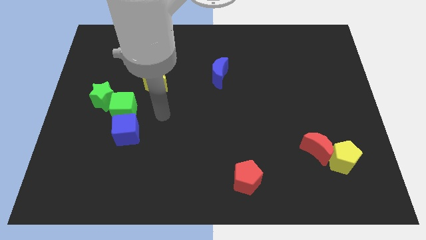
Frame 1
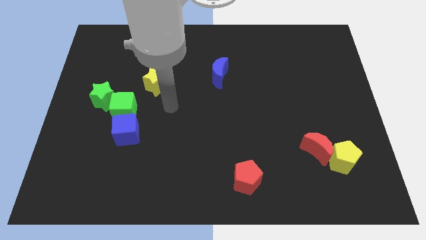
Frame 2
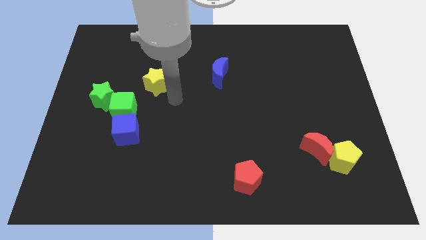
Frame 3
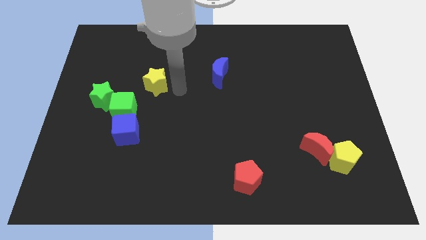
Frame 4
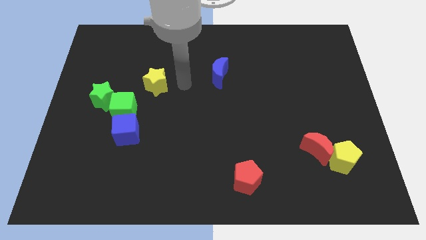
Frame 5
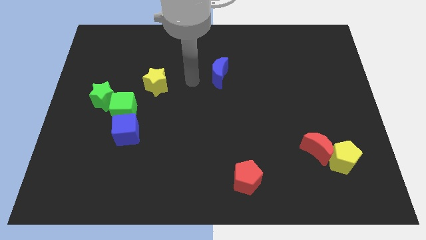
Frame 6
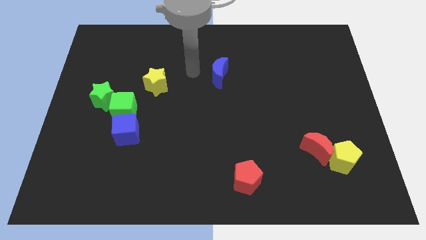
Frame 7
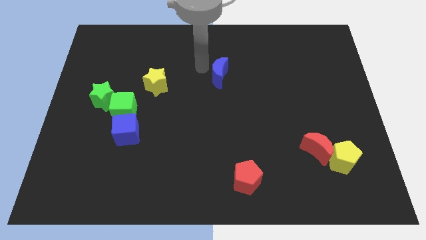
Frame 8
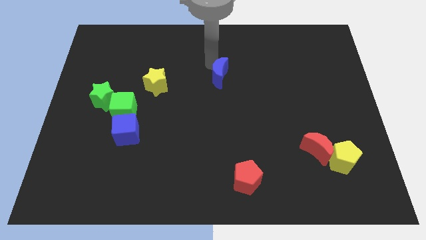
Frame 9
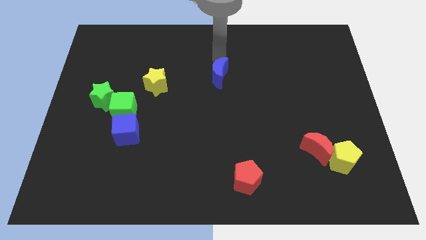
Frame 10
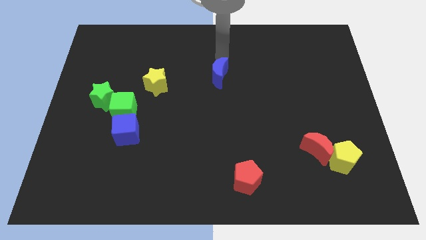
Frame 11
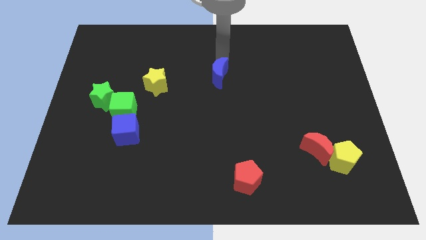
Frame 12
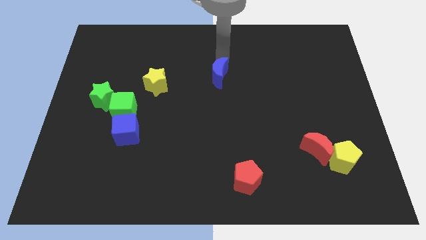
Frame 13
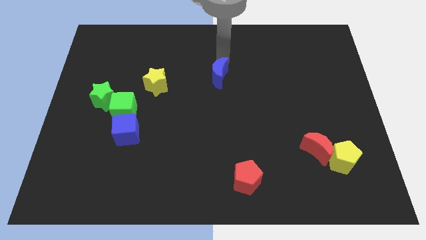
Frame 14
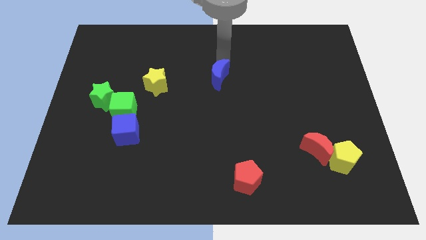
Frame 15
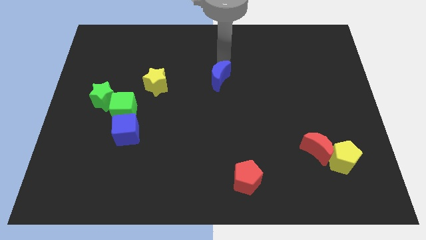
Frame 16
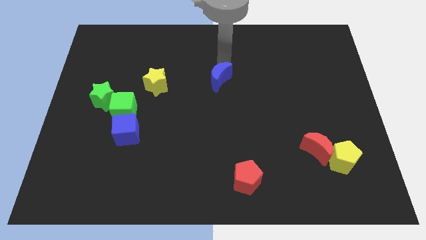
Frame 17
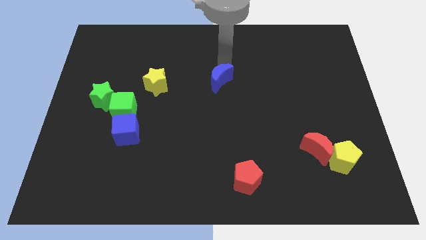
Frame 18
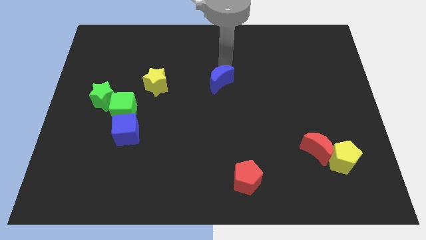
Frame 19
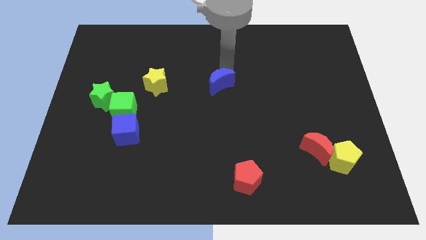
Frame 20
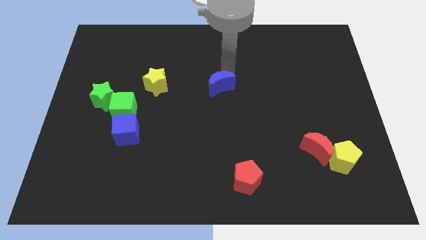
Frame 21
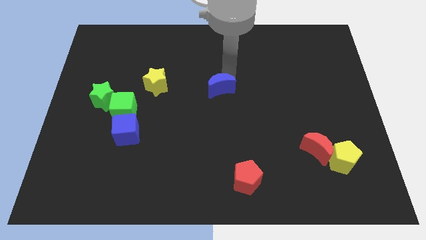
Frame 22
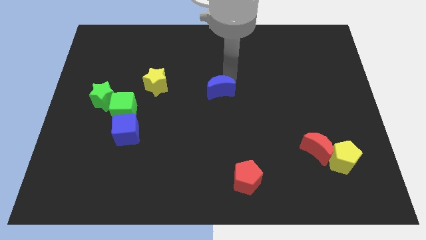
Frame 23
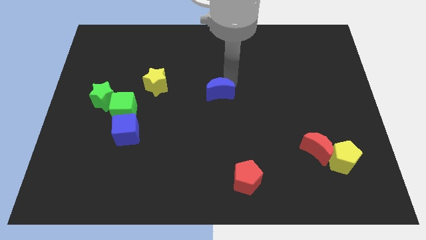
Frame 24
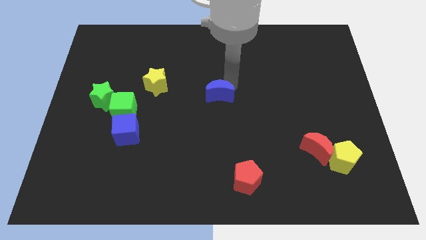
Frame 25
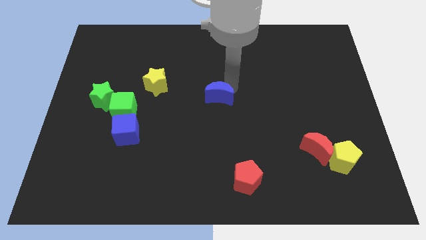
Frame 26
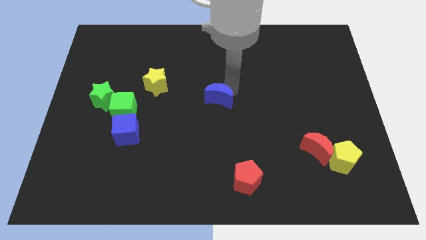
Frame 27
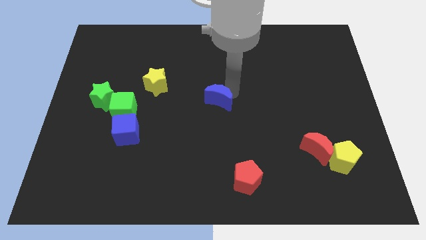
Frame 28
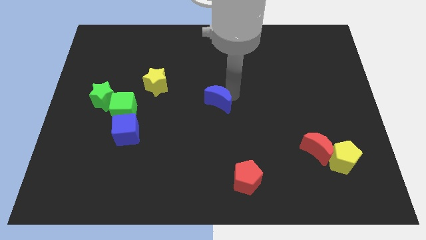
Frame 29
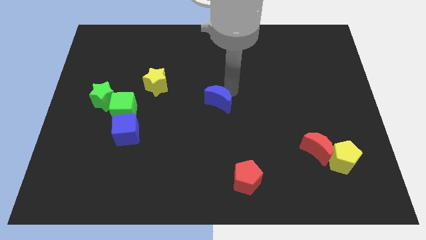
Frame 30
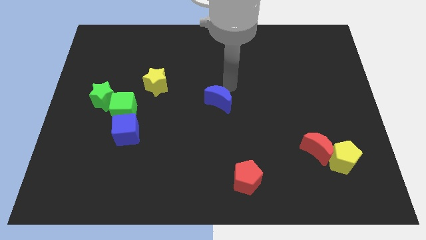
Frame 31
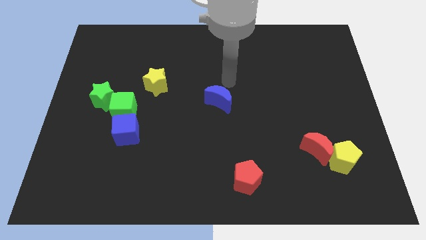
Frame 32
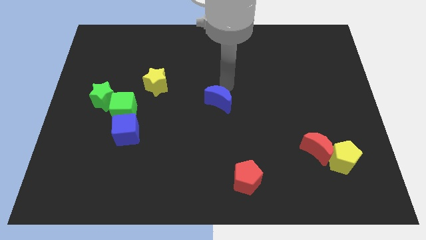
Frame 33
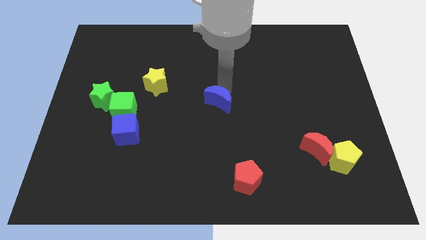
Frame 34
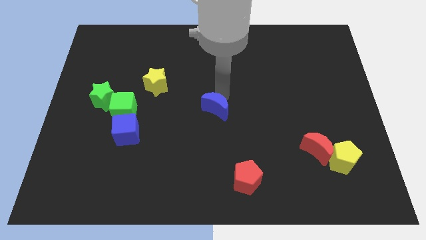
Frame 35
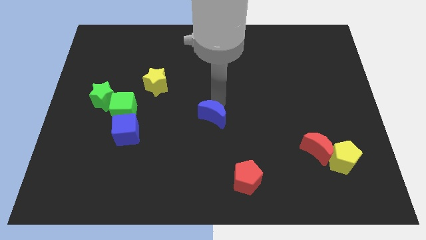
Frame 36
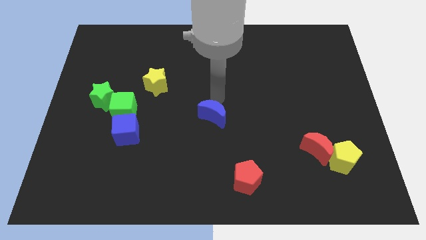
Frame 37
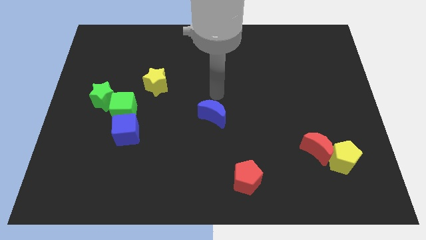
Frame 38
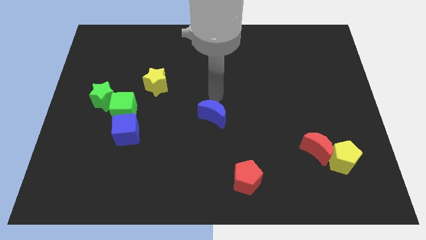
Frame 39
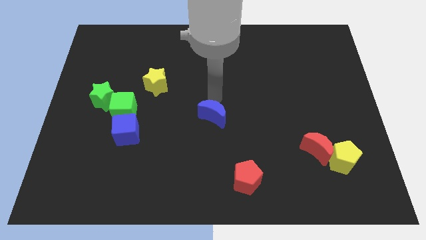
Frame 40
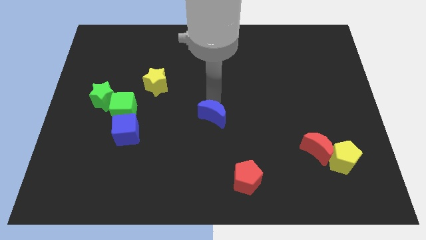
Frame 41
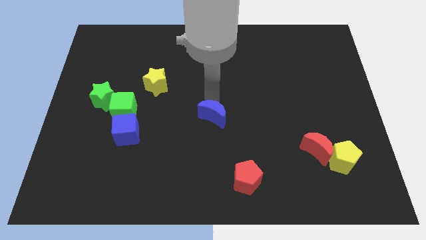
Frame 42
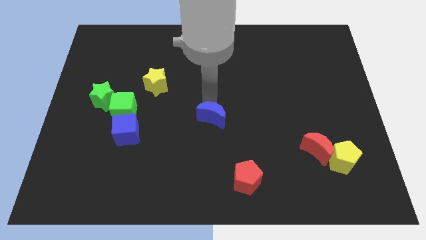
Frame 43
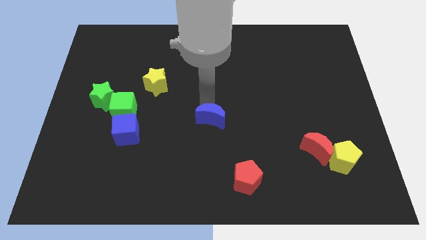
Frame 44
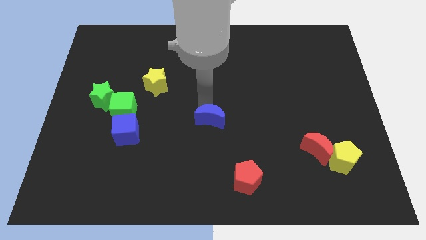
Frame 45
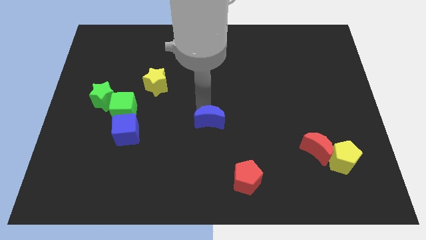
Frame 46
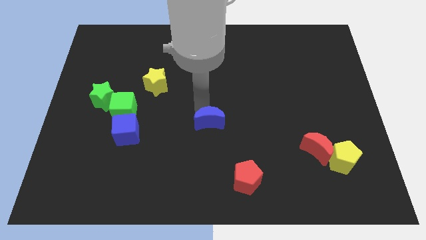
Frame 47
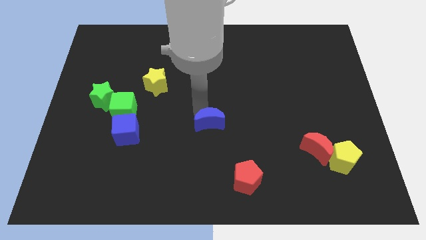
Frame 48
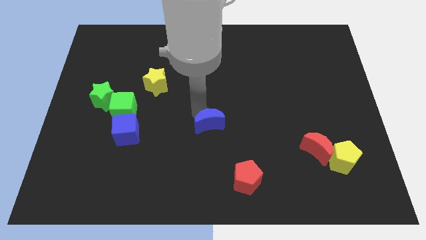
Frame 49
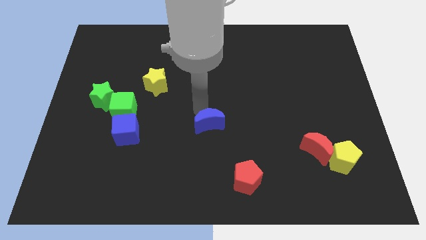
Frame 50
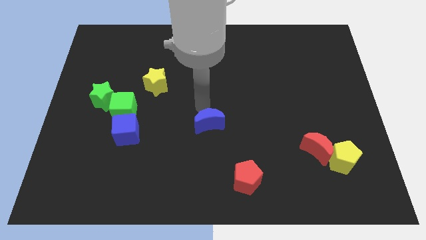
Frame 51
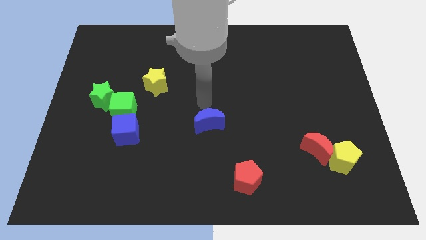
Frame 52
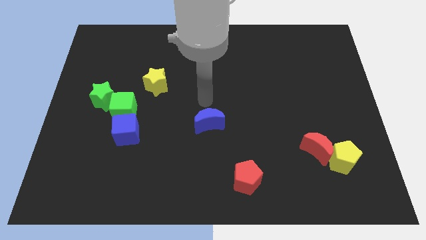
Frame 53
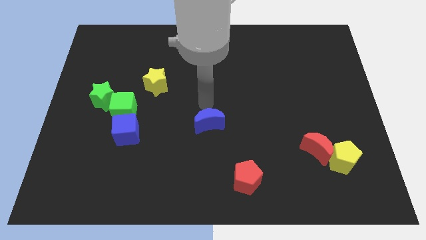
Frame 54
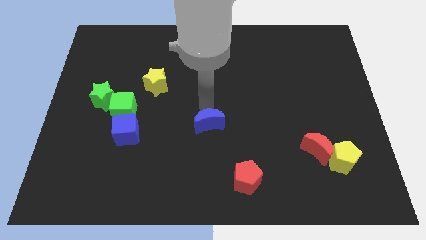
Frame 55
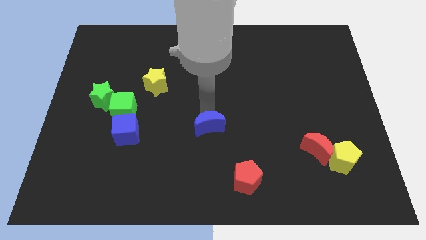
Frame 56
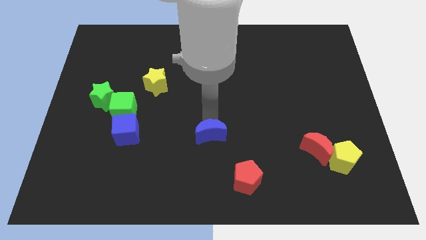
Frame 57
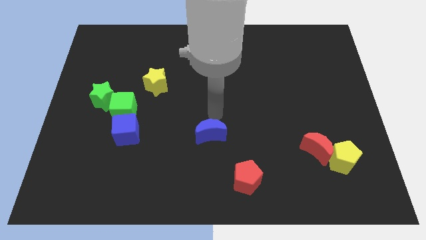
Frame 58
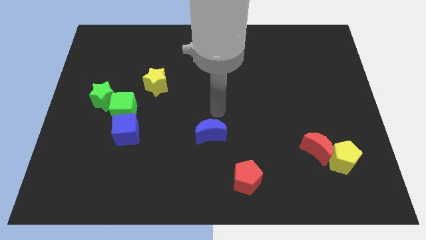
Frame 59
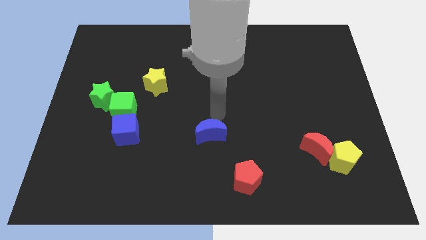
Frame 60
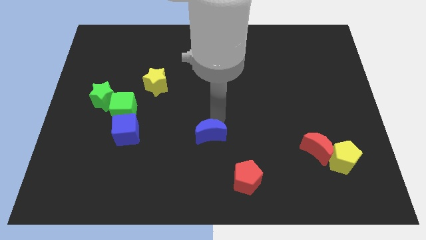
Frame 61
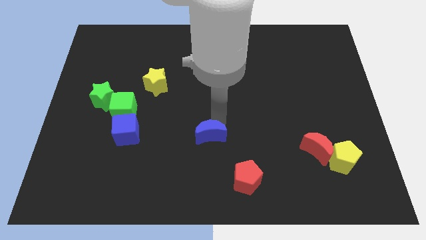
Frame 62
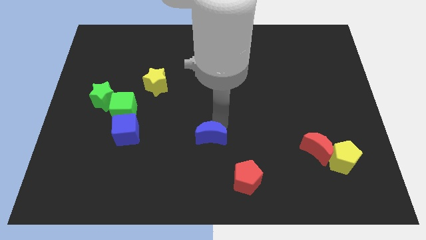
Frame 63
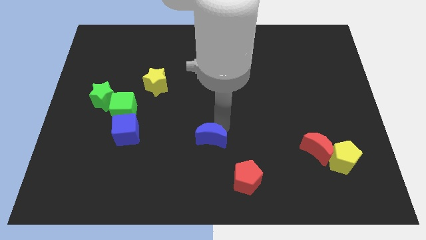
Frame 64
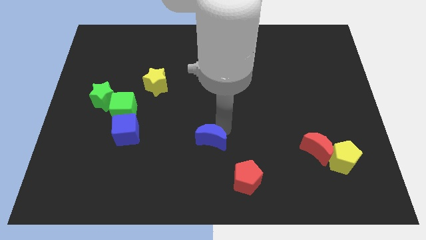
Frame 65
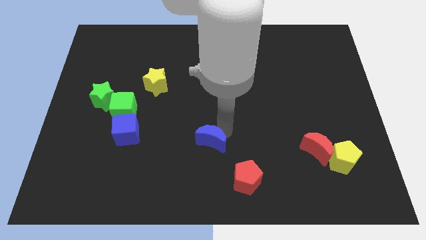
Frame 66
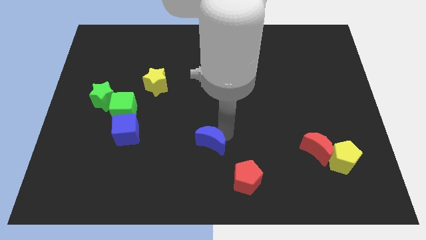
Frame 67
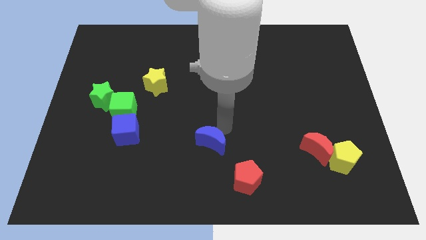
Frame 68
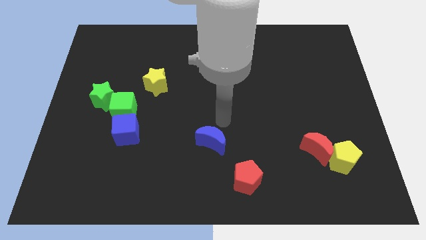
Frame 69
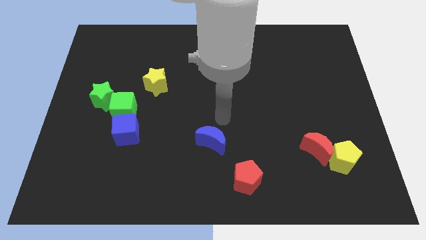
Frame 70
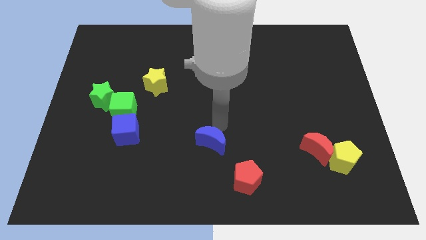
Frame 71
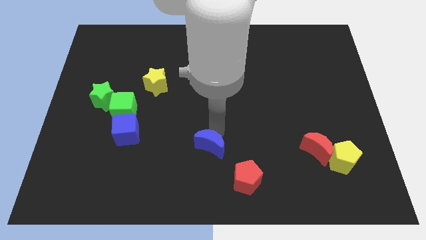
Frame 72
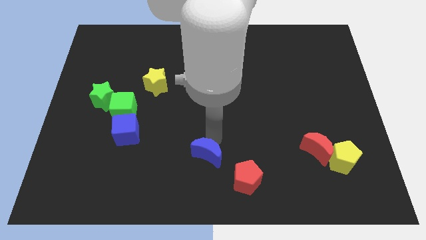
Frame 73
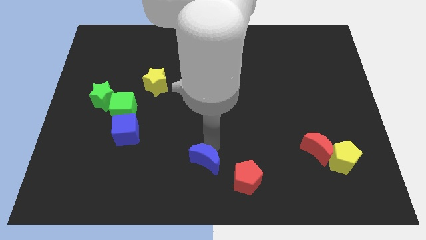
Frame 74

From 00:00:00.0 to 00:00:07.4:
move the blue moon left of the red pentagon
